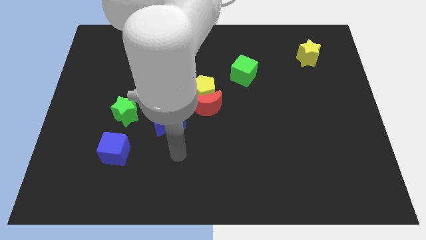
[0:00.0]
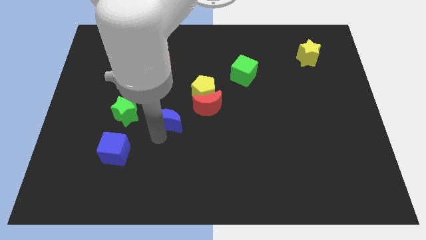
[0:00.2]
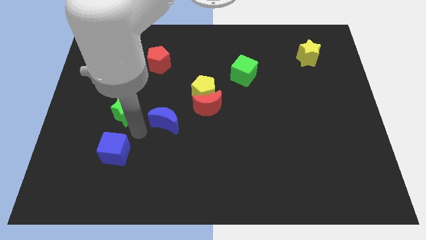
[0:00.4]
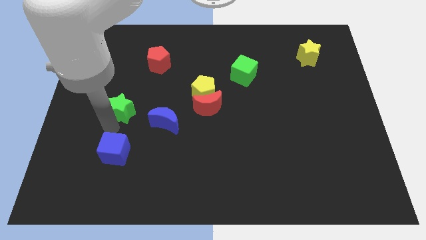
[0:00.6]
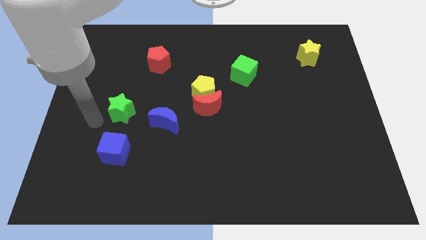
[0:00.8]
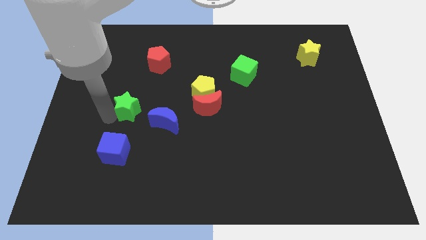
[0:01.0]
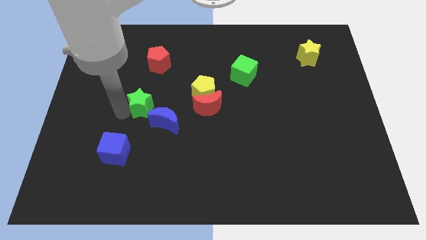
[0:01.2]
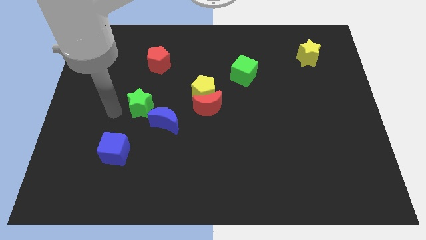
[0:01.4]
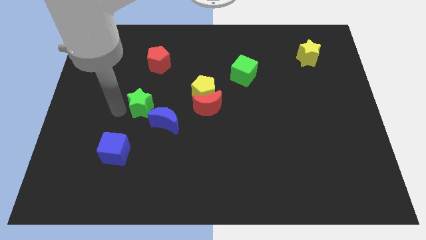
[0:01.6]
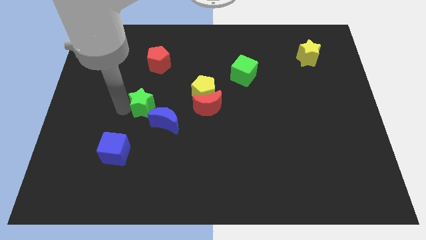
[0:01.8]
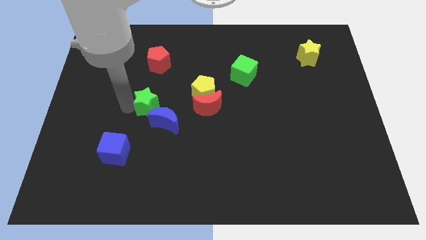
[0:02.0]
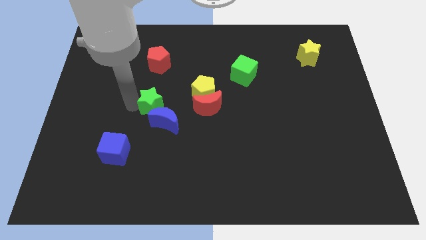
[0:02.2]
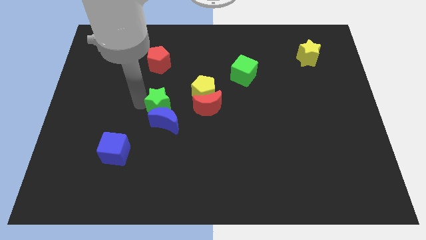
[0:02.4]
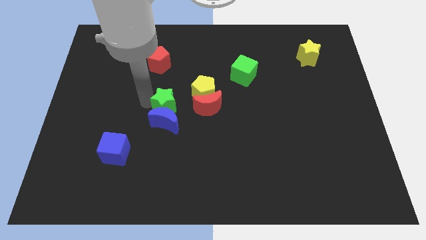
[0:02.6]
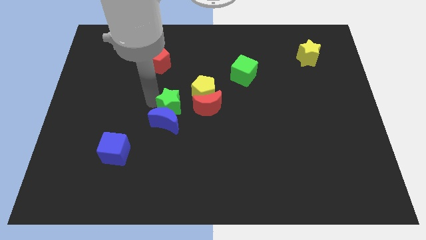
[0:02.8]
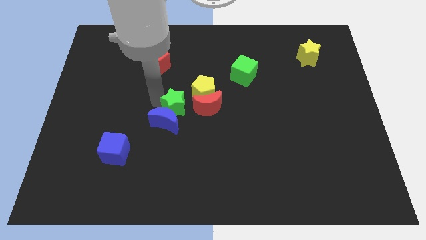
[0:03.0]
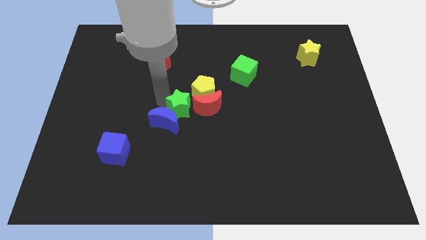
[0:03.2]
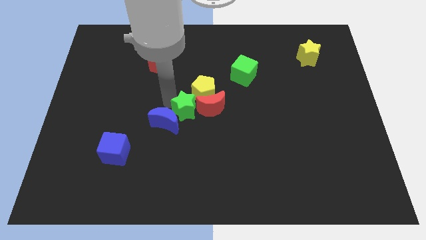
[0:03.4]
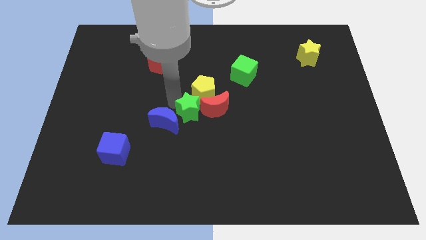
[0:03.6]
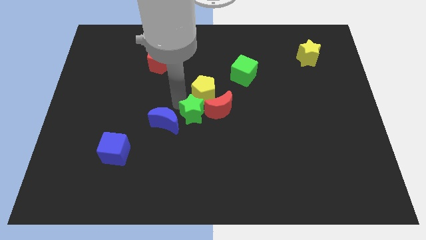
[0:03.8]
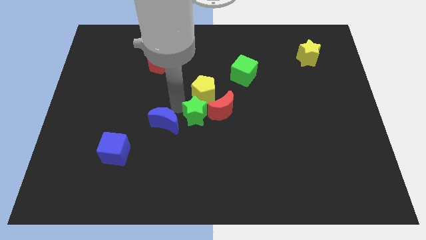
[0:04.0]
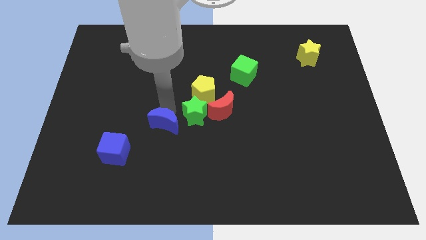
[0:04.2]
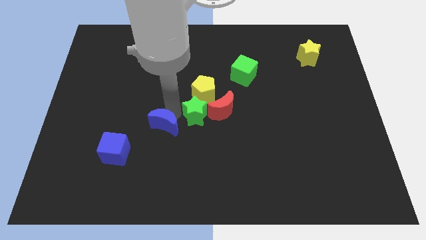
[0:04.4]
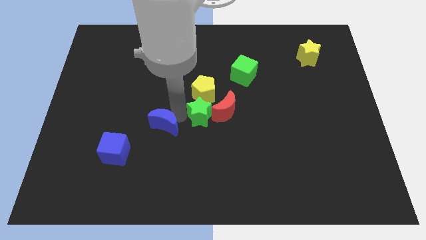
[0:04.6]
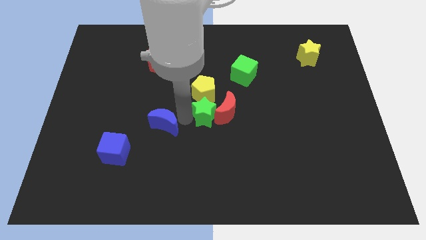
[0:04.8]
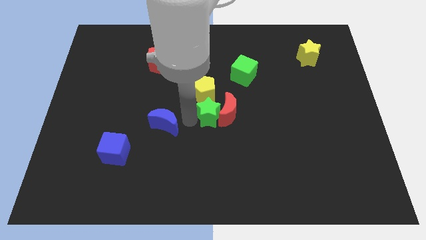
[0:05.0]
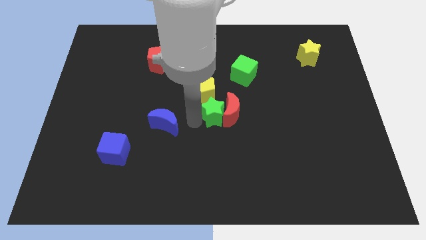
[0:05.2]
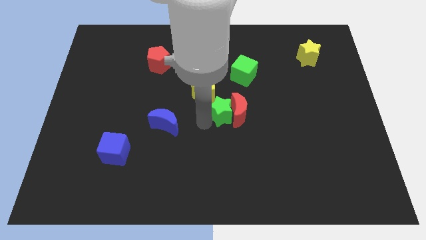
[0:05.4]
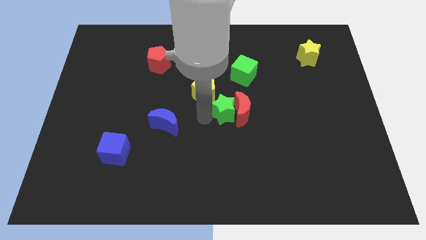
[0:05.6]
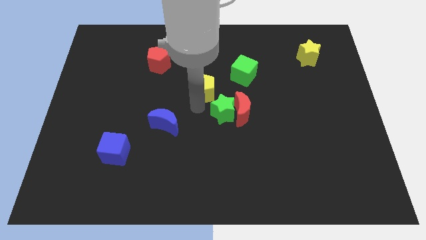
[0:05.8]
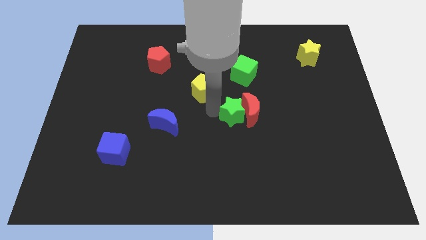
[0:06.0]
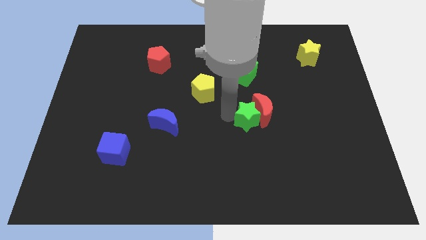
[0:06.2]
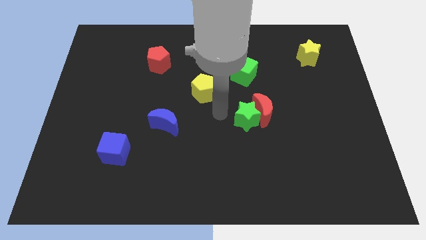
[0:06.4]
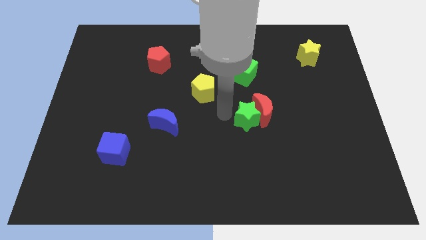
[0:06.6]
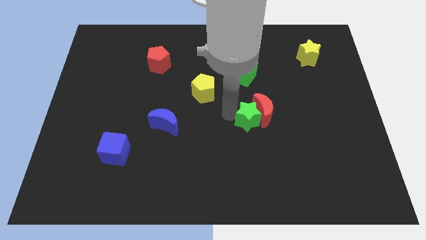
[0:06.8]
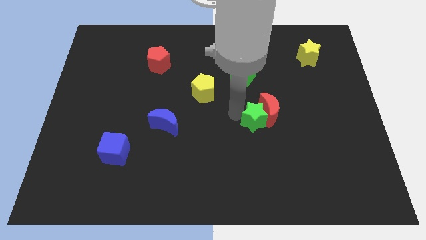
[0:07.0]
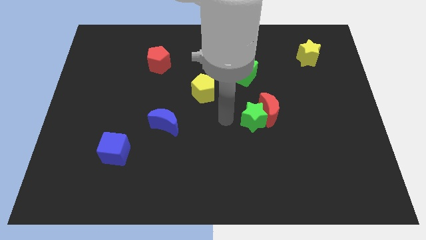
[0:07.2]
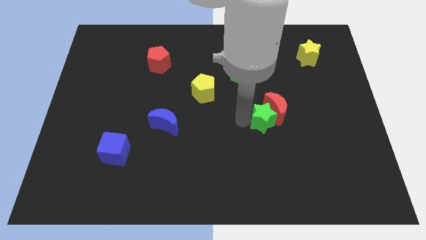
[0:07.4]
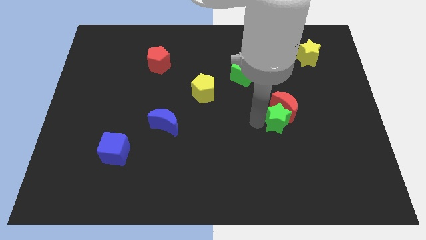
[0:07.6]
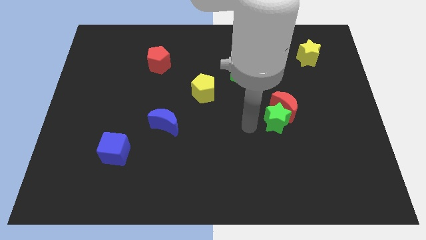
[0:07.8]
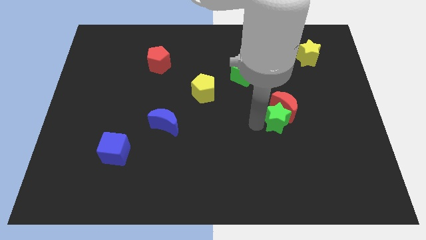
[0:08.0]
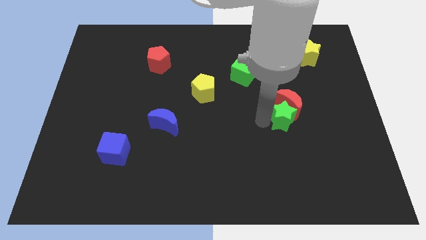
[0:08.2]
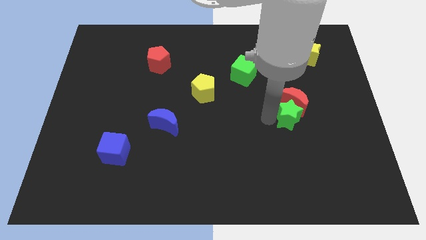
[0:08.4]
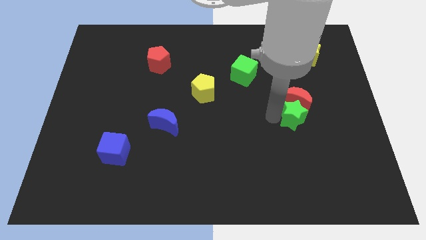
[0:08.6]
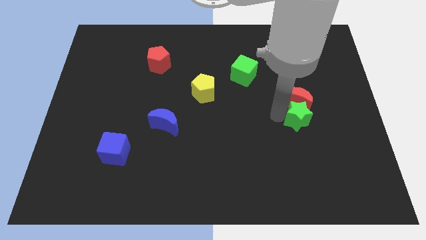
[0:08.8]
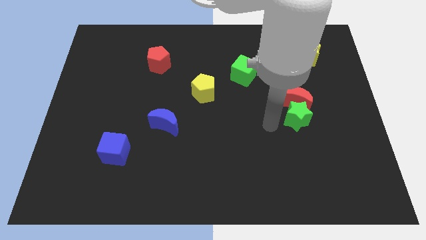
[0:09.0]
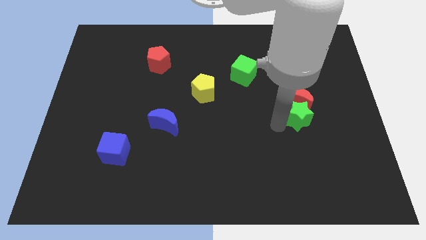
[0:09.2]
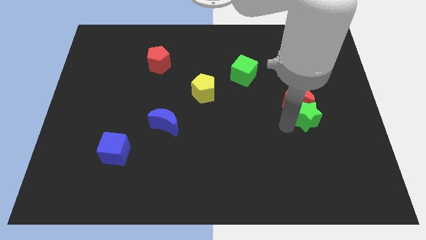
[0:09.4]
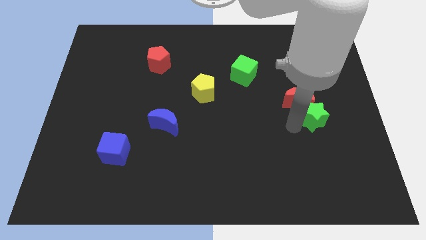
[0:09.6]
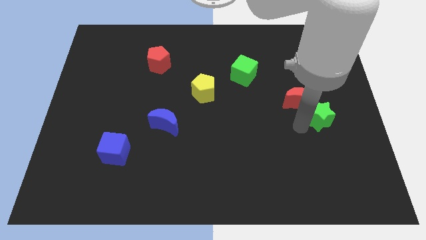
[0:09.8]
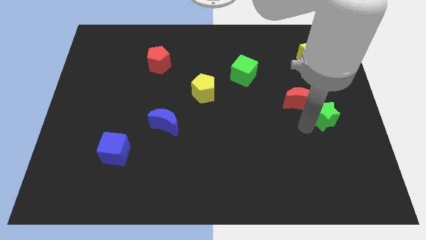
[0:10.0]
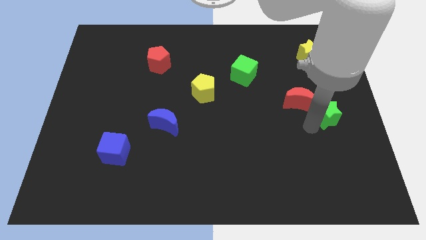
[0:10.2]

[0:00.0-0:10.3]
move the green star to the center right

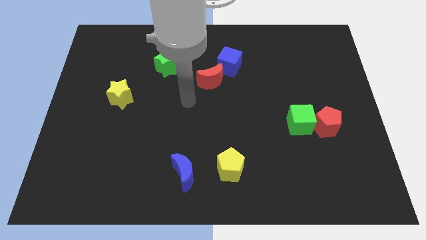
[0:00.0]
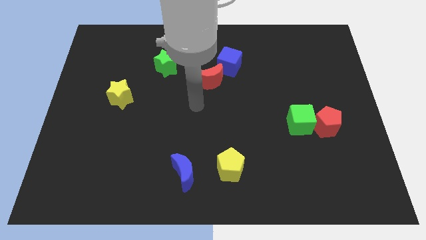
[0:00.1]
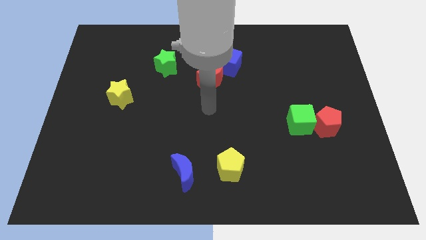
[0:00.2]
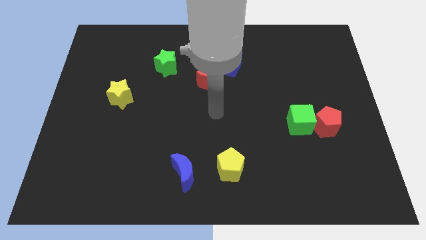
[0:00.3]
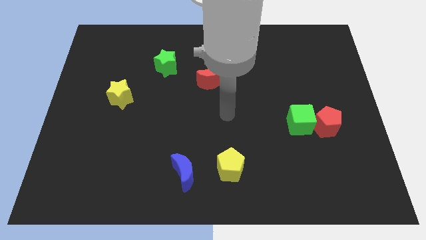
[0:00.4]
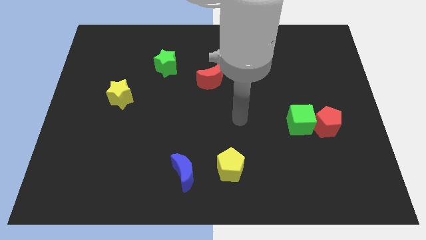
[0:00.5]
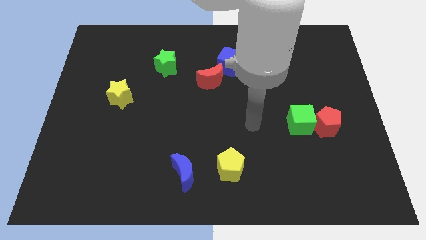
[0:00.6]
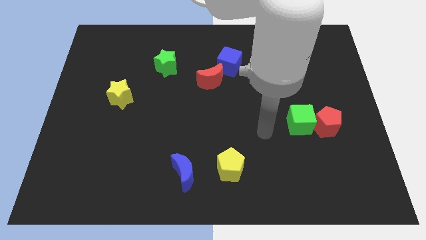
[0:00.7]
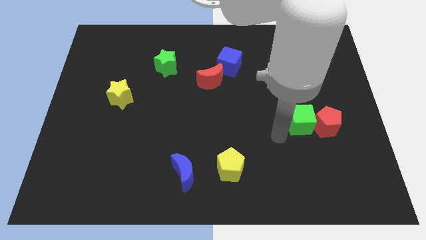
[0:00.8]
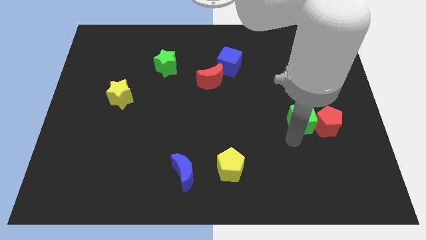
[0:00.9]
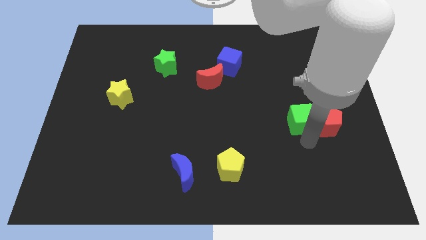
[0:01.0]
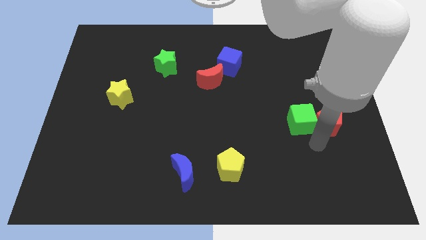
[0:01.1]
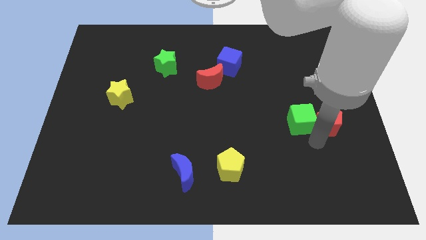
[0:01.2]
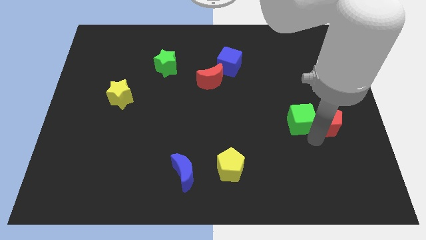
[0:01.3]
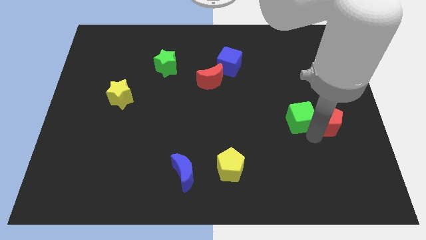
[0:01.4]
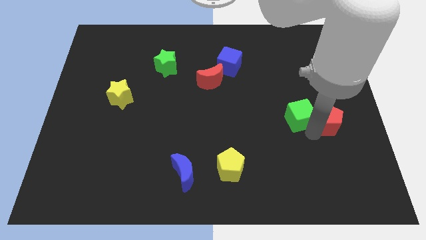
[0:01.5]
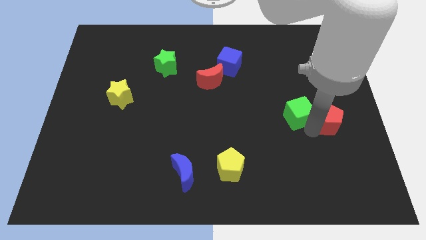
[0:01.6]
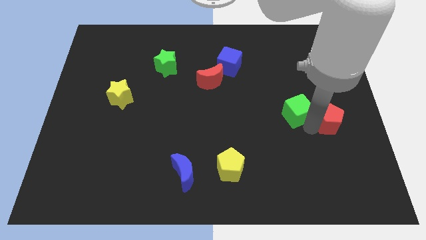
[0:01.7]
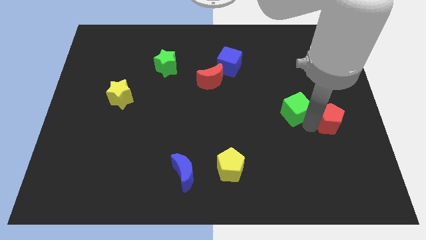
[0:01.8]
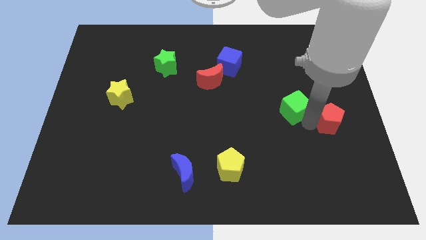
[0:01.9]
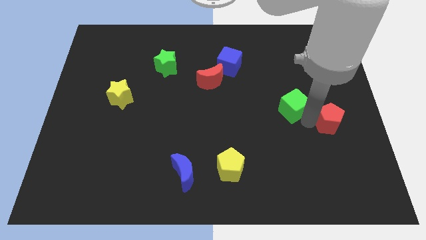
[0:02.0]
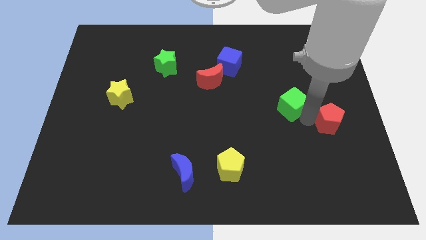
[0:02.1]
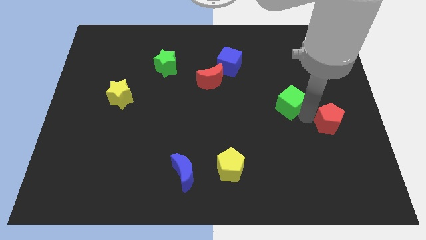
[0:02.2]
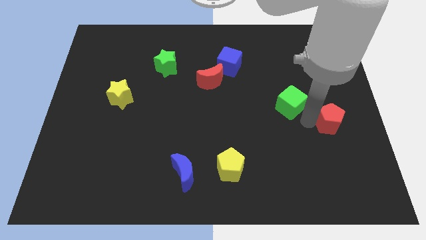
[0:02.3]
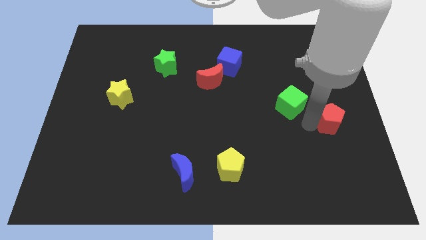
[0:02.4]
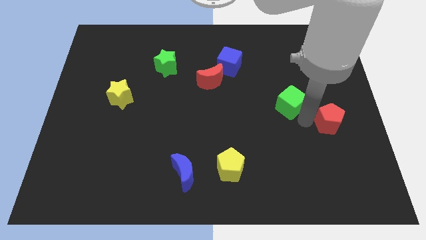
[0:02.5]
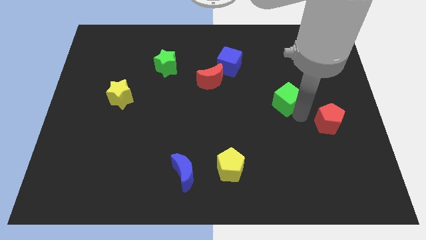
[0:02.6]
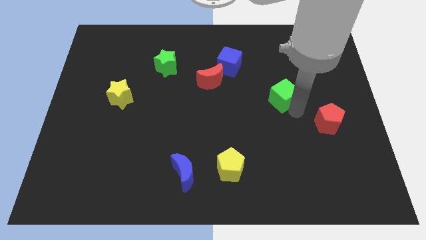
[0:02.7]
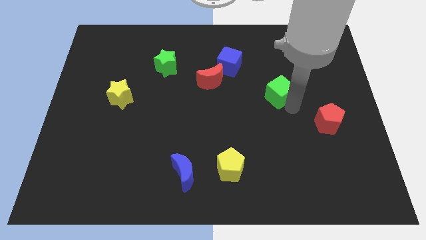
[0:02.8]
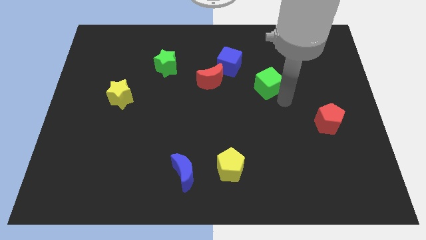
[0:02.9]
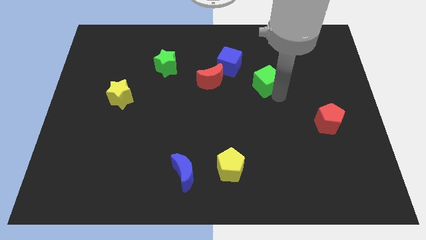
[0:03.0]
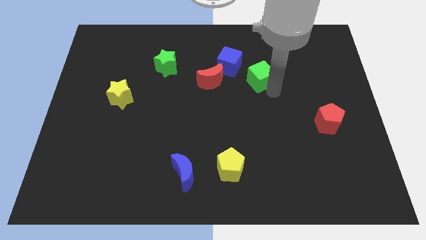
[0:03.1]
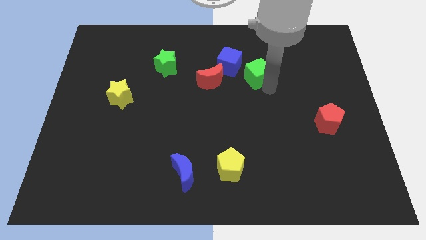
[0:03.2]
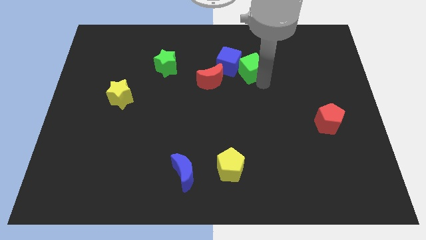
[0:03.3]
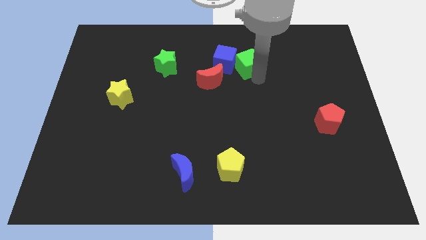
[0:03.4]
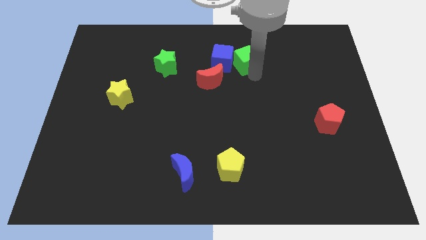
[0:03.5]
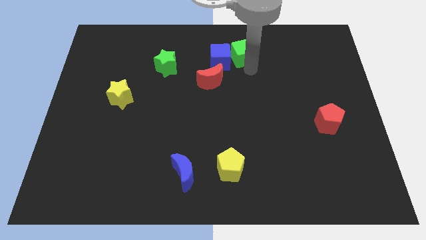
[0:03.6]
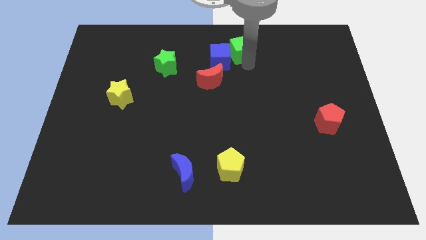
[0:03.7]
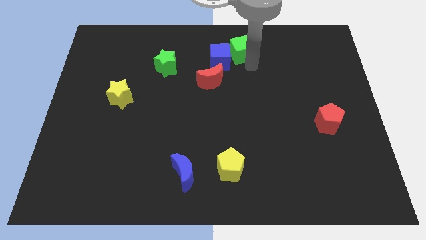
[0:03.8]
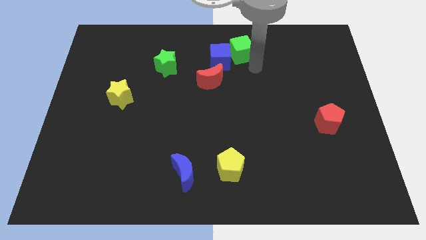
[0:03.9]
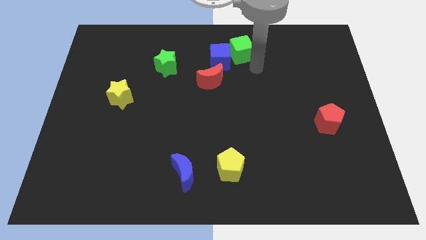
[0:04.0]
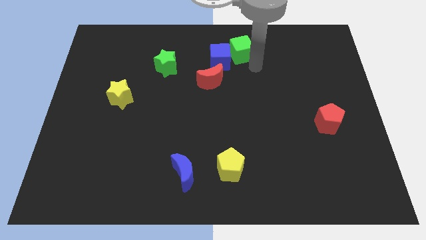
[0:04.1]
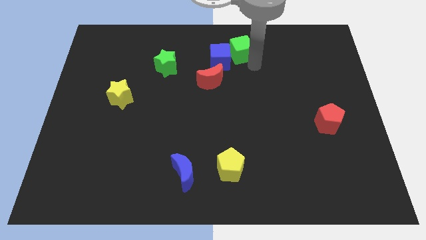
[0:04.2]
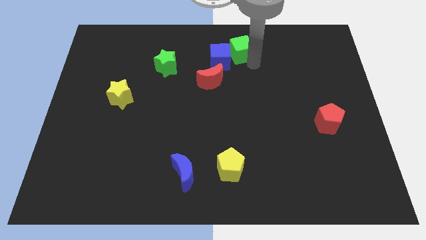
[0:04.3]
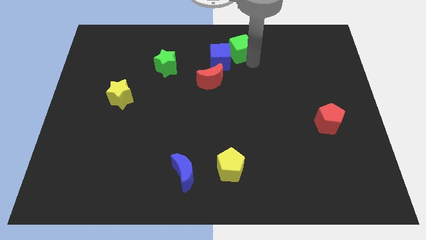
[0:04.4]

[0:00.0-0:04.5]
push the green cube to the top
